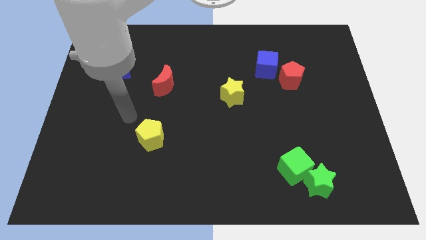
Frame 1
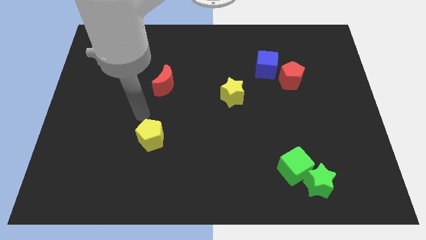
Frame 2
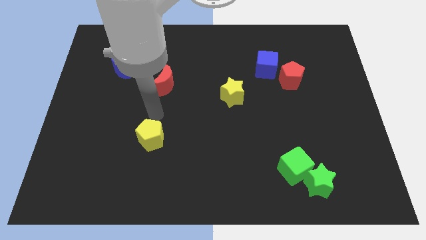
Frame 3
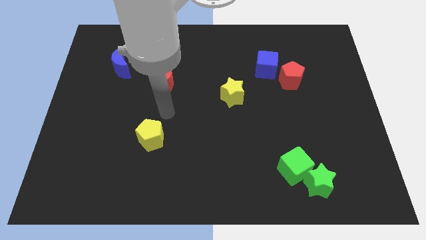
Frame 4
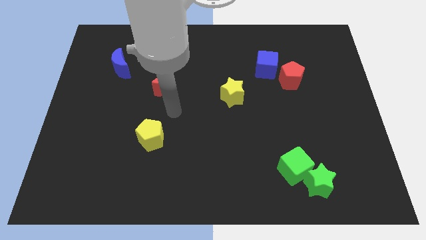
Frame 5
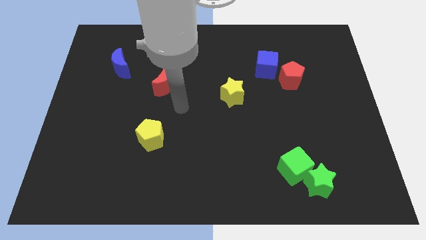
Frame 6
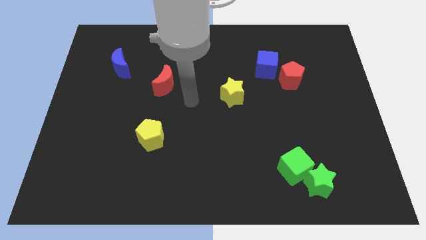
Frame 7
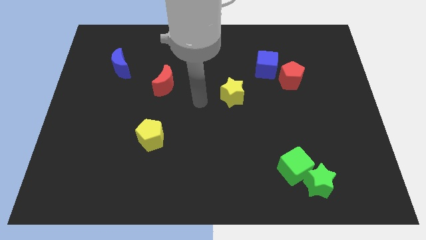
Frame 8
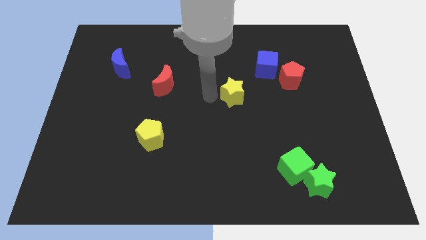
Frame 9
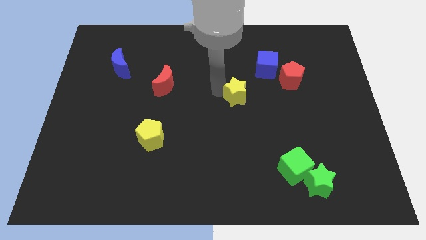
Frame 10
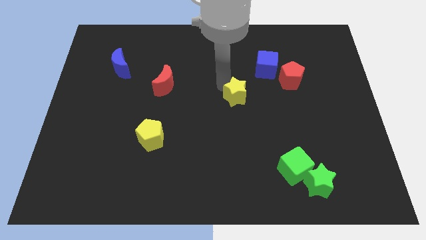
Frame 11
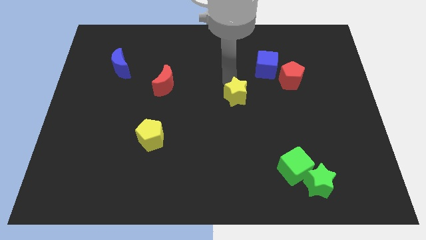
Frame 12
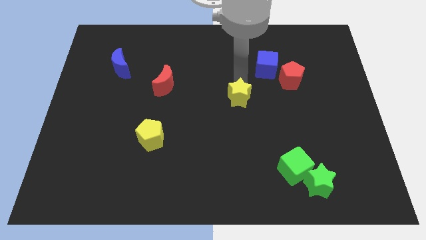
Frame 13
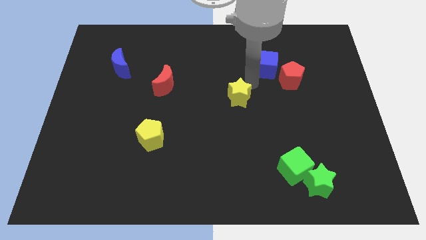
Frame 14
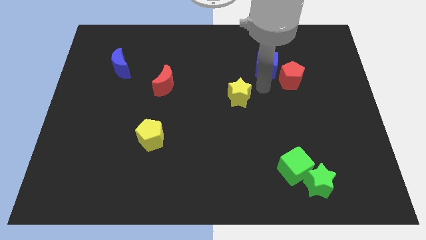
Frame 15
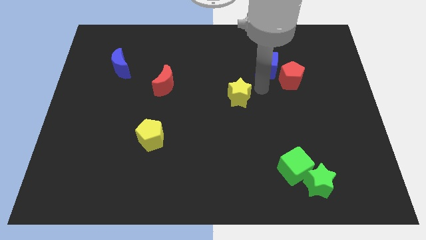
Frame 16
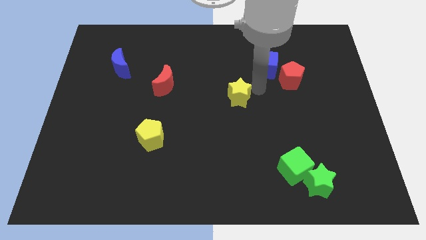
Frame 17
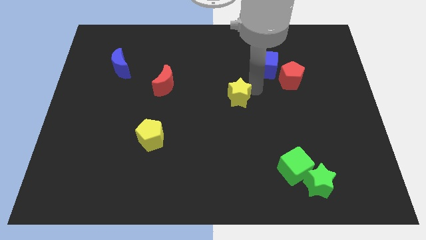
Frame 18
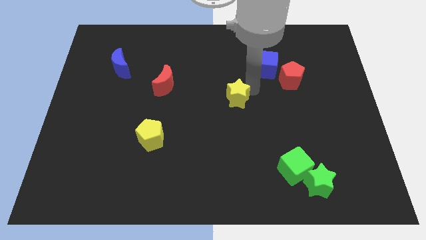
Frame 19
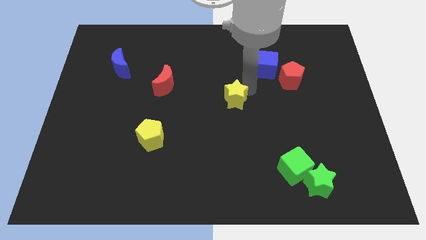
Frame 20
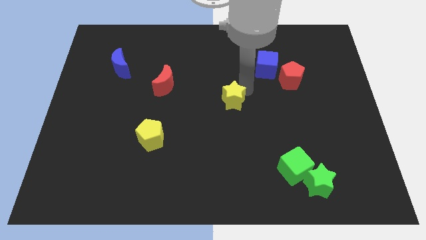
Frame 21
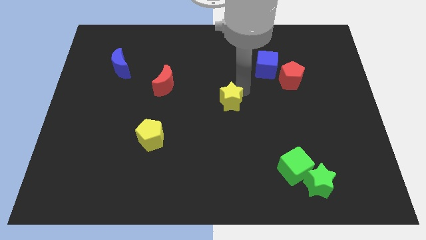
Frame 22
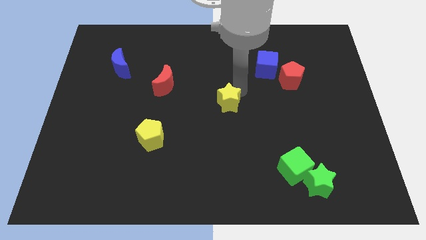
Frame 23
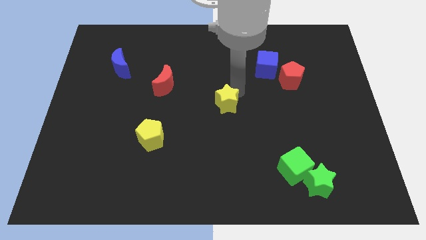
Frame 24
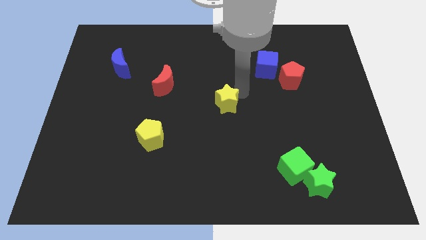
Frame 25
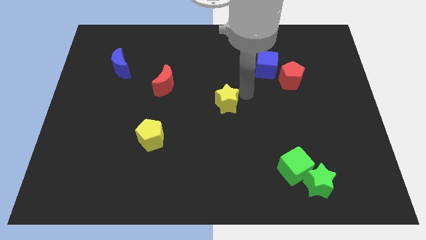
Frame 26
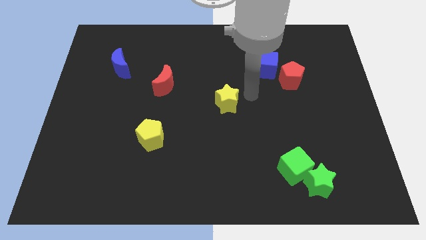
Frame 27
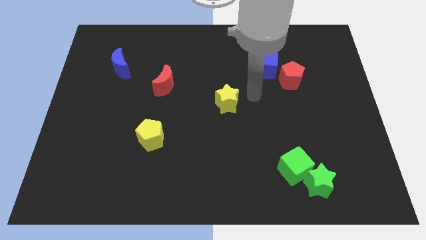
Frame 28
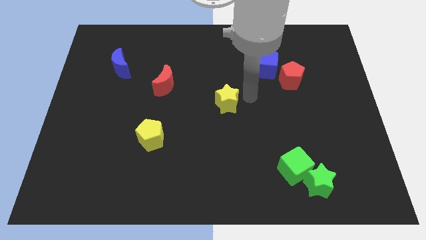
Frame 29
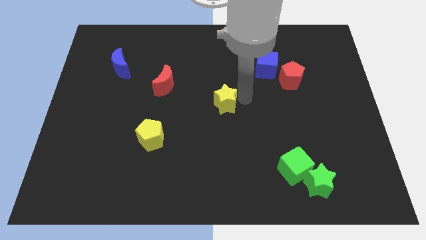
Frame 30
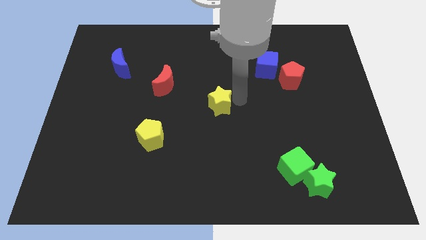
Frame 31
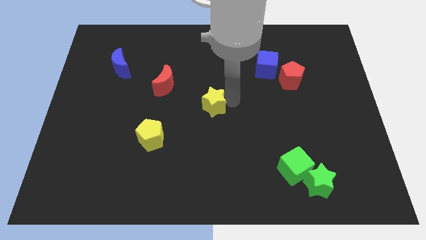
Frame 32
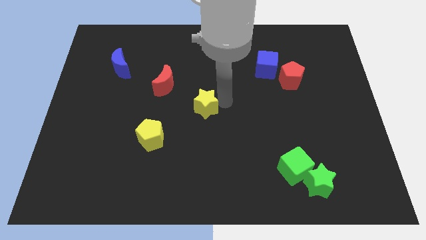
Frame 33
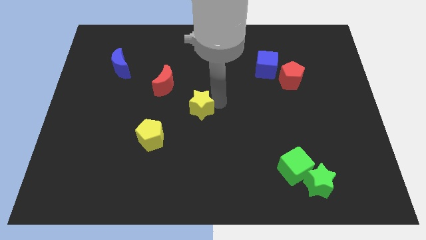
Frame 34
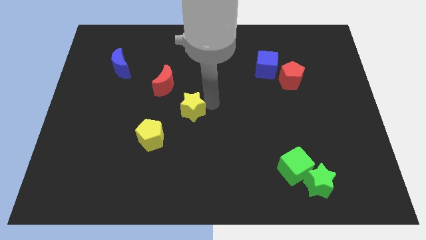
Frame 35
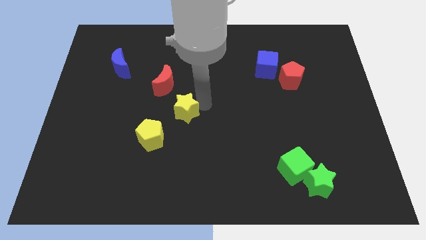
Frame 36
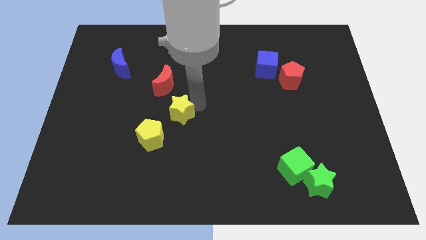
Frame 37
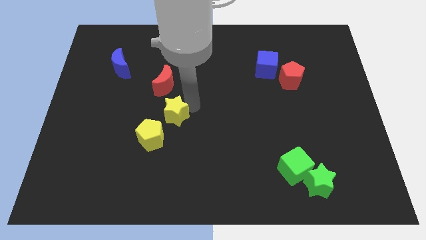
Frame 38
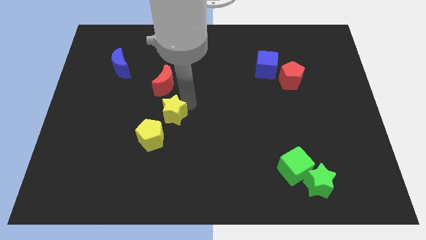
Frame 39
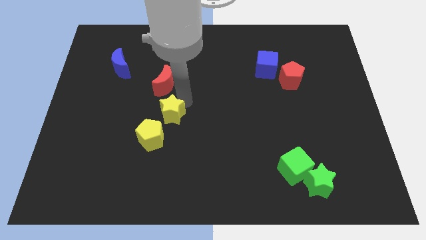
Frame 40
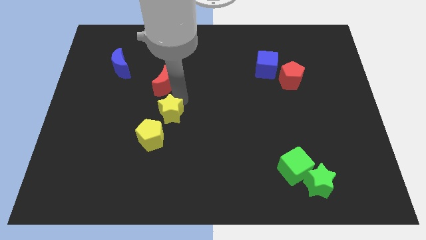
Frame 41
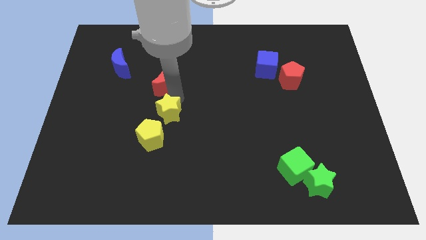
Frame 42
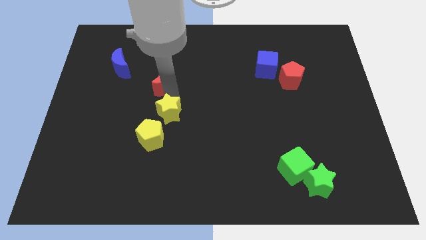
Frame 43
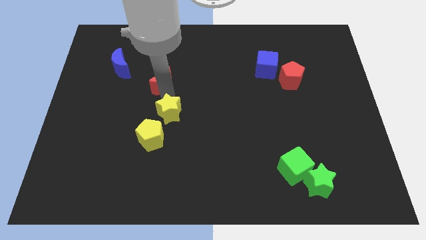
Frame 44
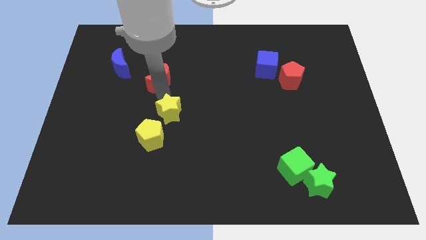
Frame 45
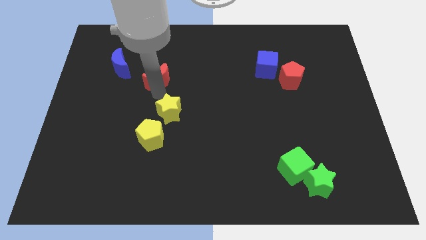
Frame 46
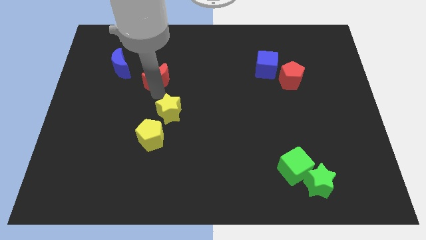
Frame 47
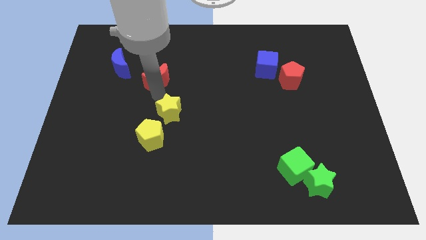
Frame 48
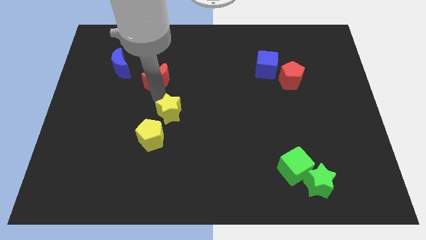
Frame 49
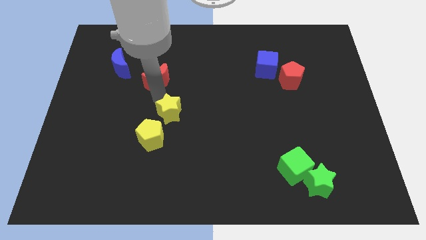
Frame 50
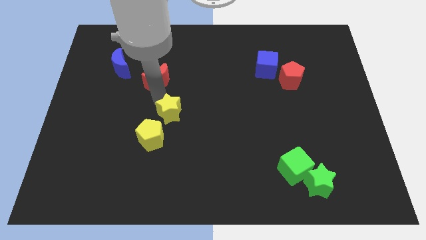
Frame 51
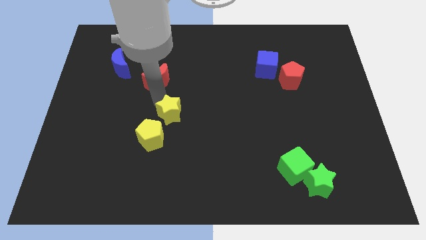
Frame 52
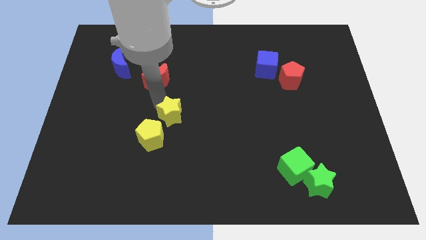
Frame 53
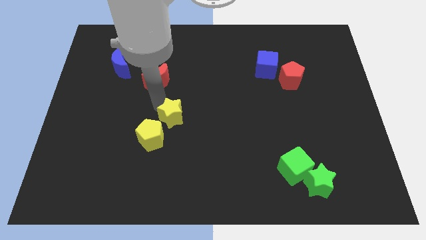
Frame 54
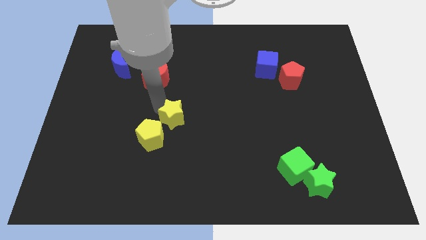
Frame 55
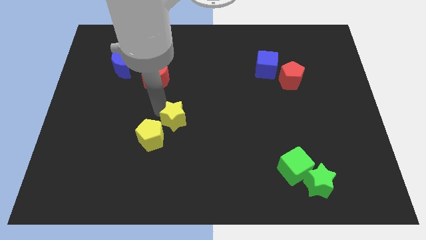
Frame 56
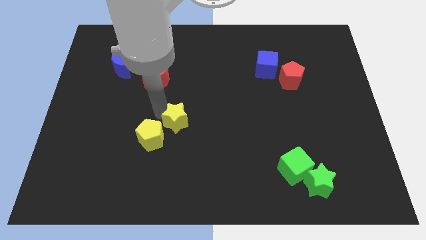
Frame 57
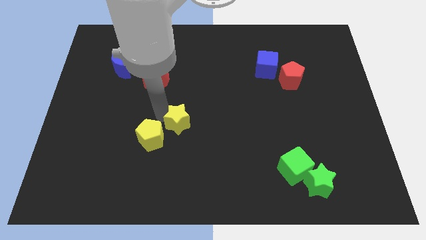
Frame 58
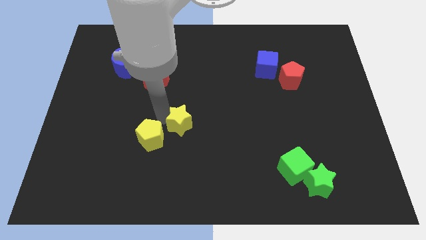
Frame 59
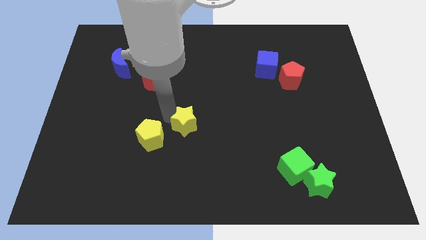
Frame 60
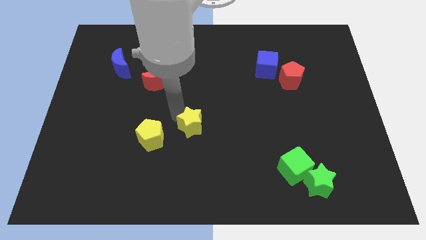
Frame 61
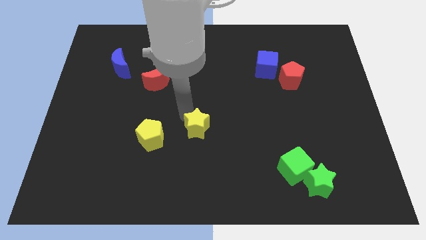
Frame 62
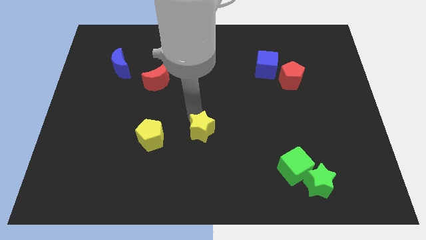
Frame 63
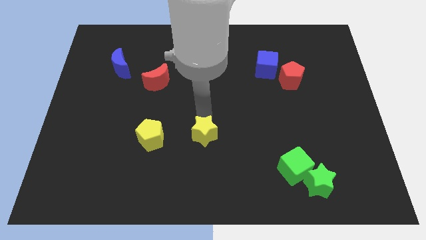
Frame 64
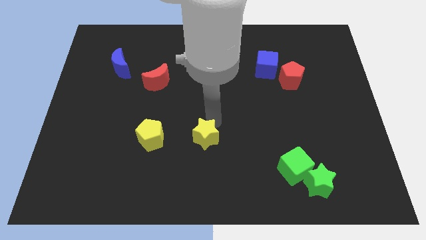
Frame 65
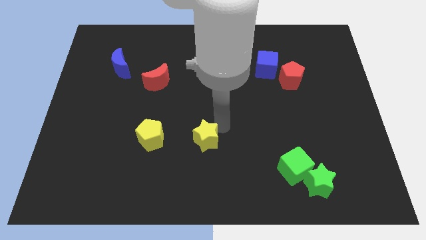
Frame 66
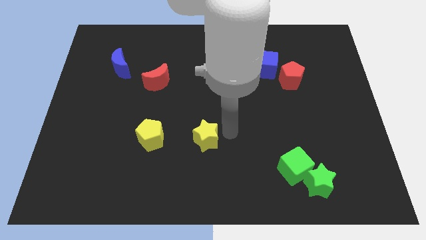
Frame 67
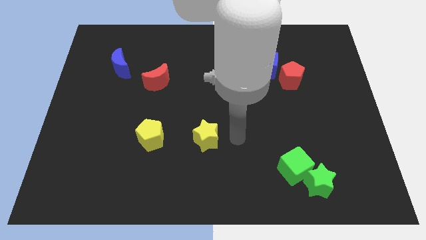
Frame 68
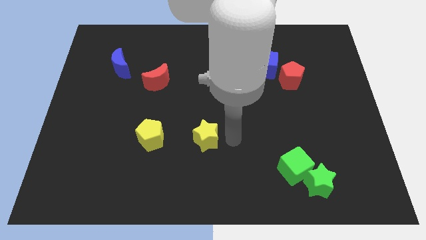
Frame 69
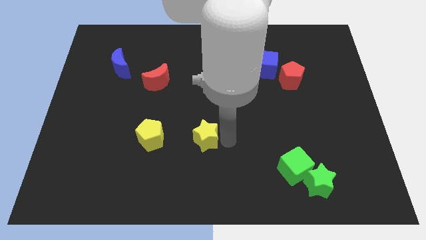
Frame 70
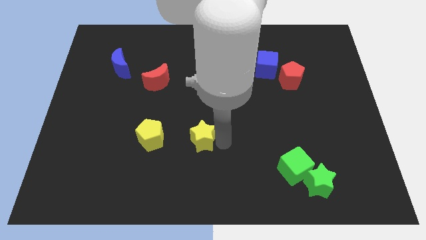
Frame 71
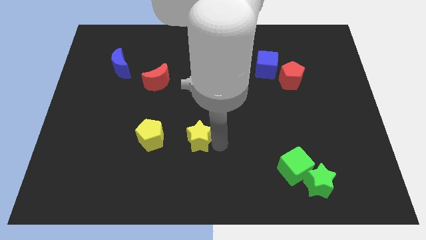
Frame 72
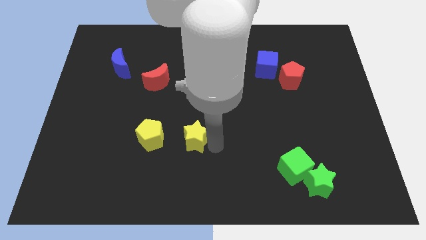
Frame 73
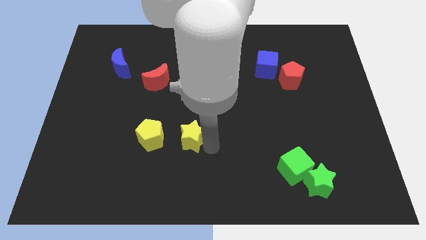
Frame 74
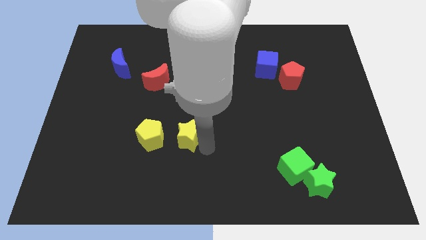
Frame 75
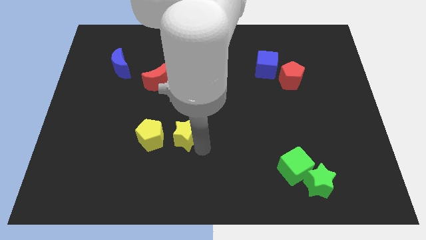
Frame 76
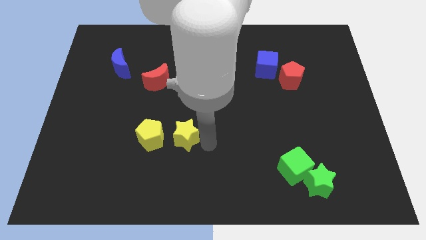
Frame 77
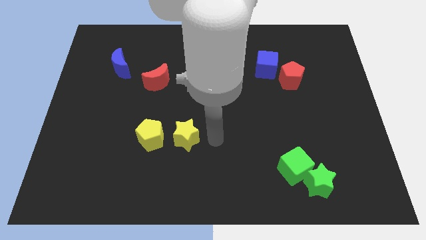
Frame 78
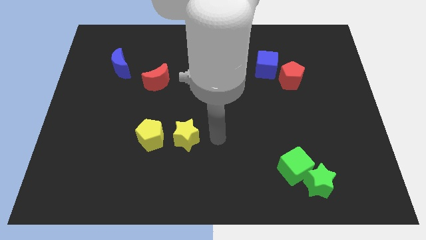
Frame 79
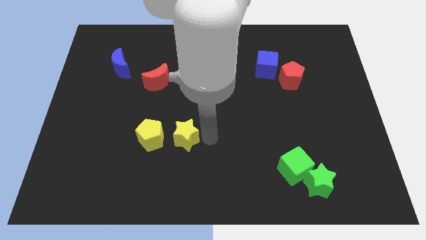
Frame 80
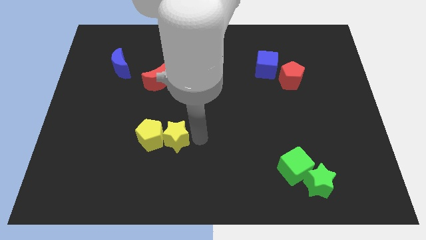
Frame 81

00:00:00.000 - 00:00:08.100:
push the yellow star to the yellow pentagon
